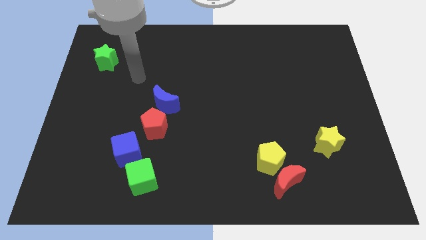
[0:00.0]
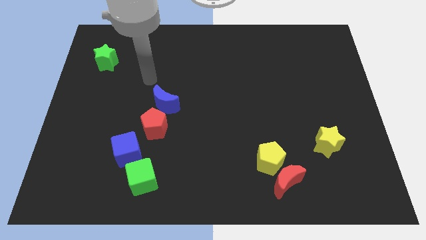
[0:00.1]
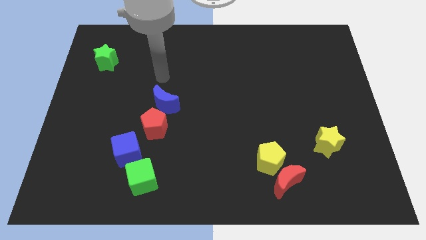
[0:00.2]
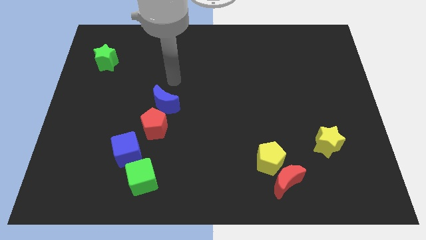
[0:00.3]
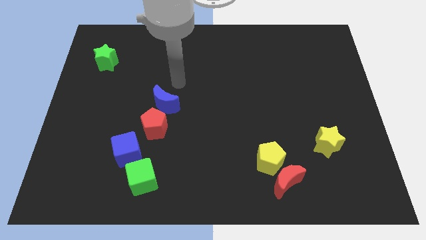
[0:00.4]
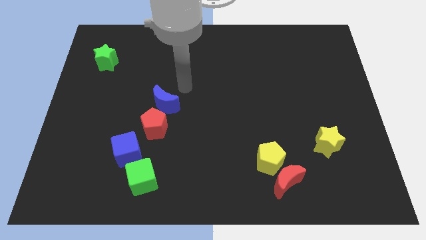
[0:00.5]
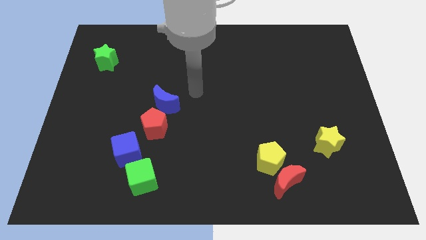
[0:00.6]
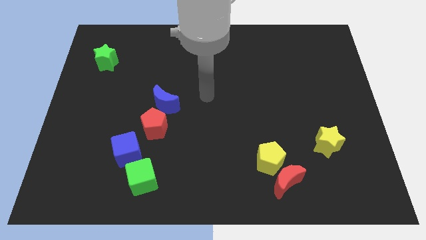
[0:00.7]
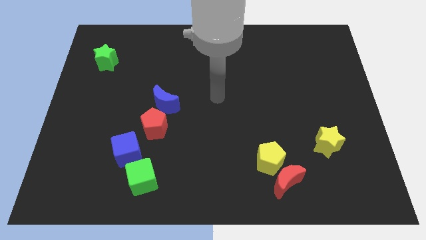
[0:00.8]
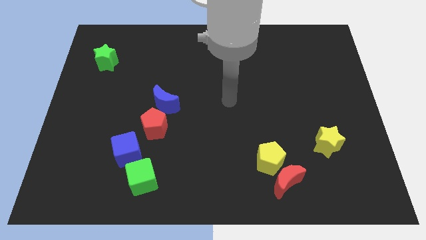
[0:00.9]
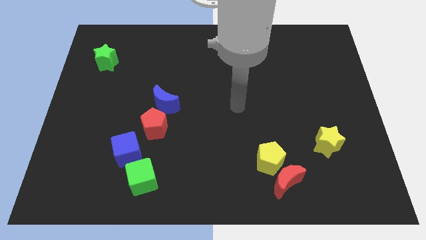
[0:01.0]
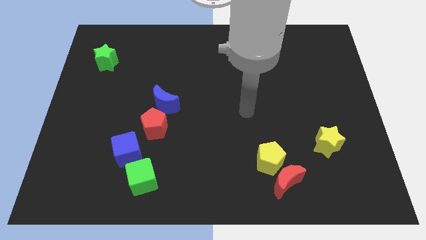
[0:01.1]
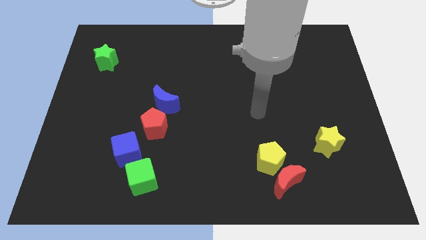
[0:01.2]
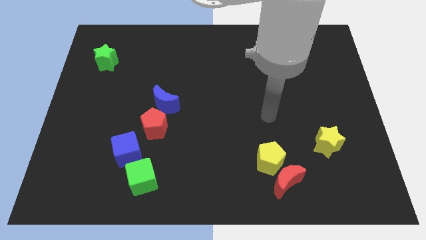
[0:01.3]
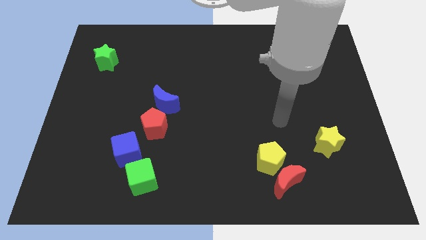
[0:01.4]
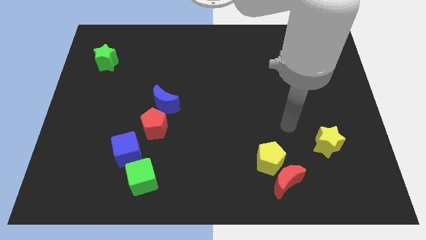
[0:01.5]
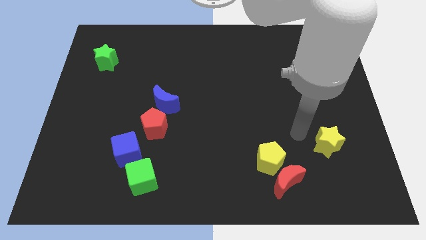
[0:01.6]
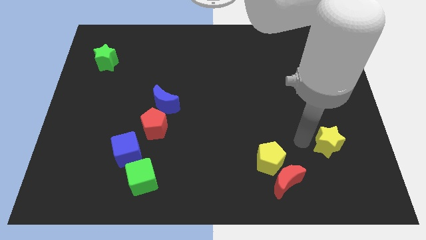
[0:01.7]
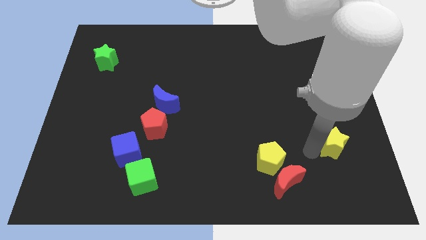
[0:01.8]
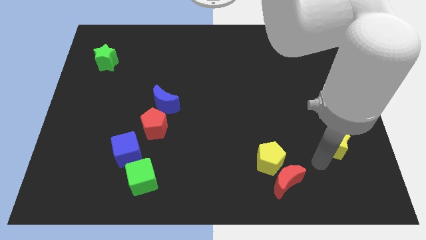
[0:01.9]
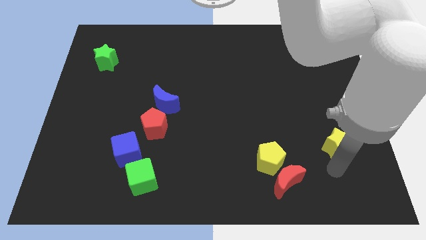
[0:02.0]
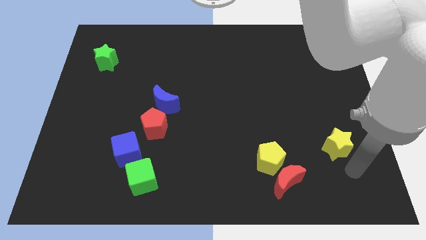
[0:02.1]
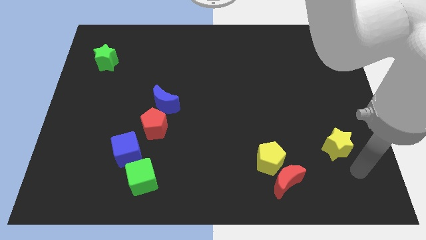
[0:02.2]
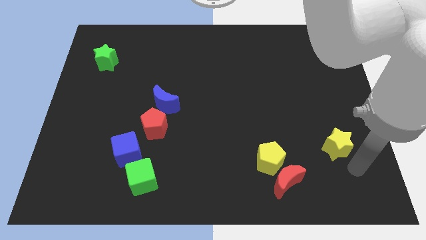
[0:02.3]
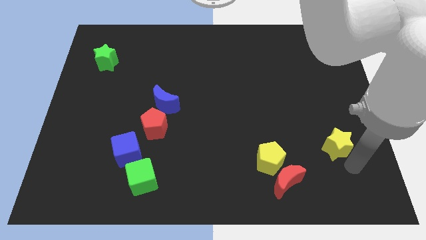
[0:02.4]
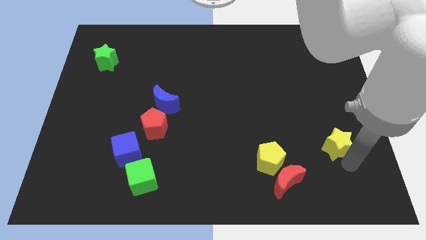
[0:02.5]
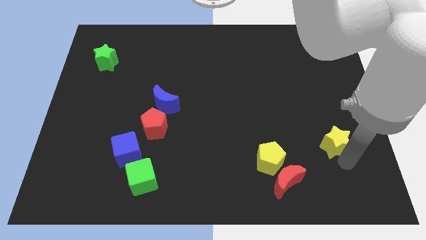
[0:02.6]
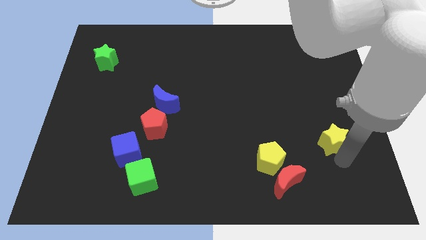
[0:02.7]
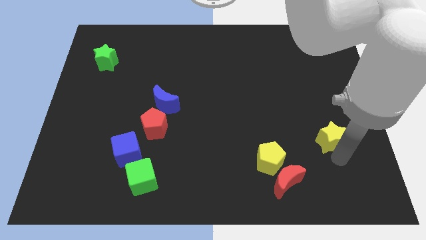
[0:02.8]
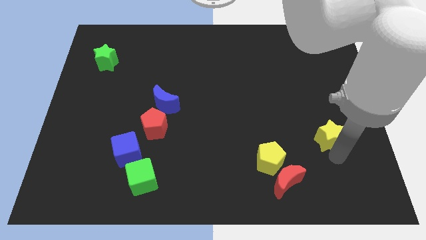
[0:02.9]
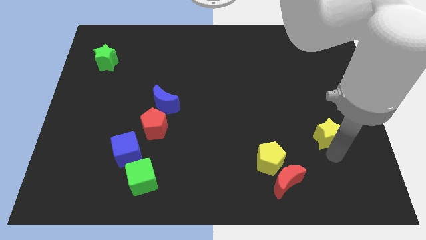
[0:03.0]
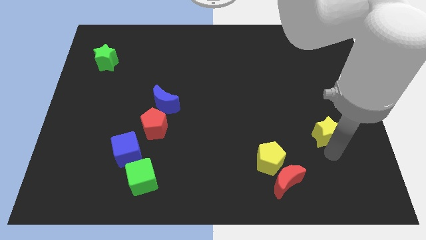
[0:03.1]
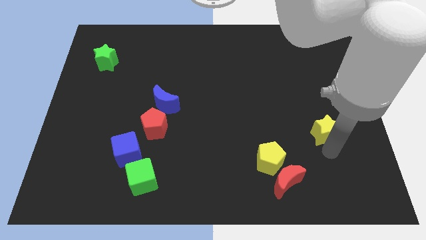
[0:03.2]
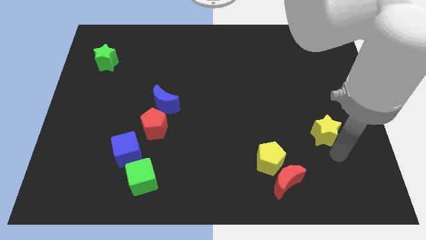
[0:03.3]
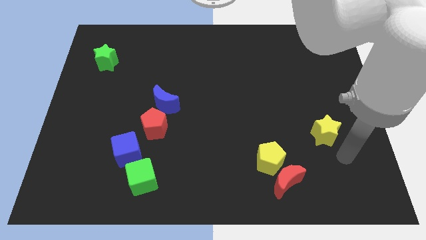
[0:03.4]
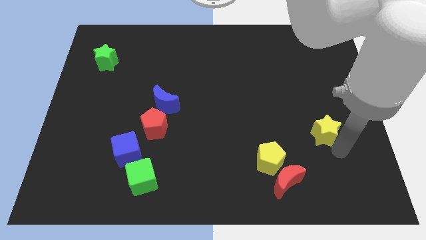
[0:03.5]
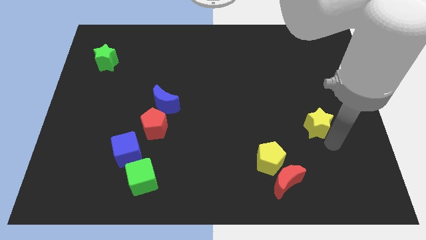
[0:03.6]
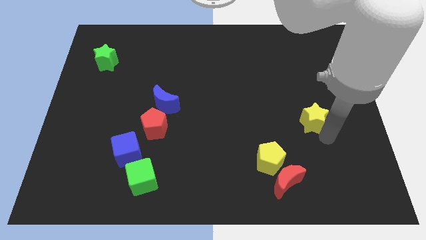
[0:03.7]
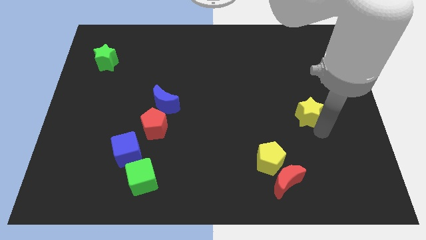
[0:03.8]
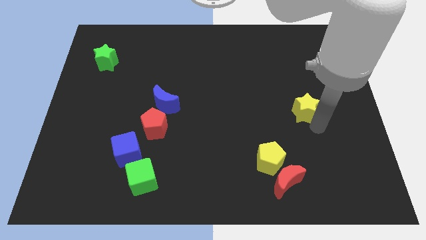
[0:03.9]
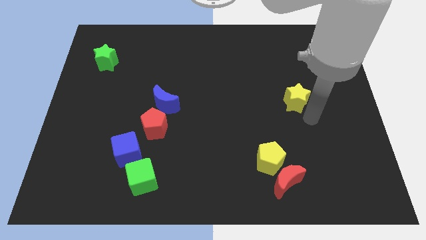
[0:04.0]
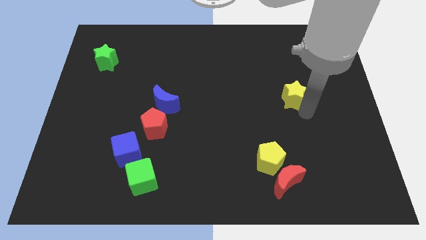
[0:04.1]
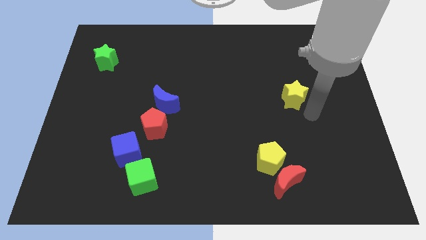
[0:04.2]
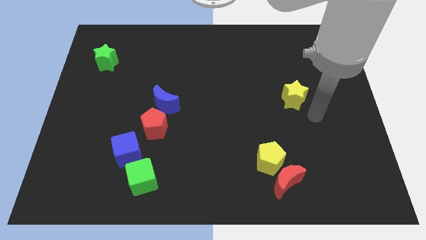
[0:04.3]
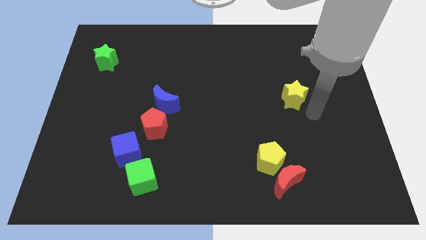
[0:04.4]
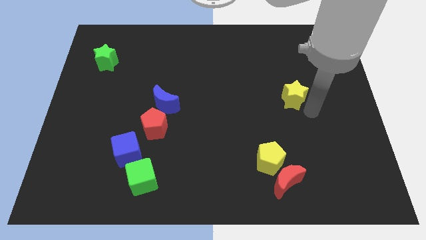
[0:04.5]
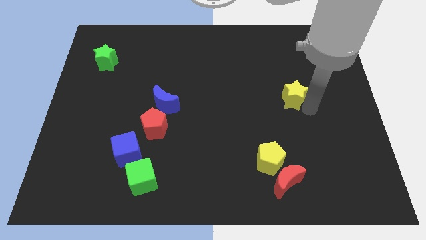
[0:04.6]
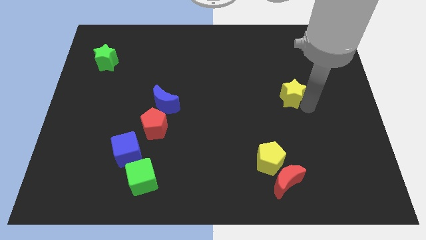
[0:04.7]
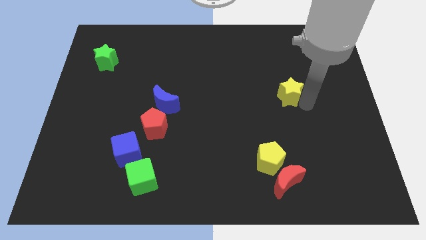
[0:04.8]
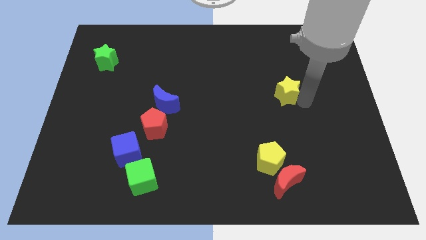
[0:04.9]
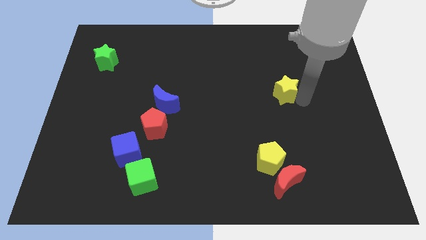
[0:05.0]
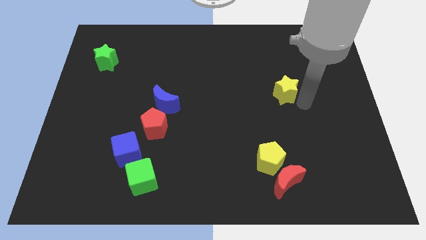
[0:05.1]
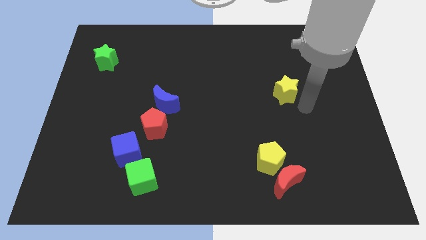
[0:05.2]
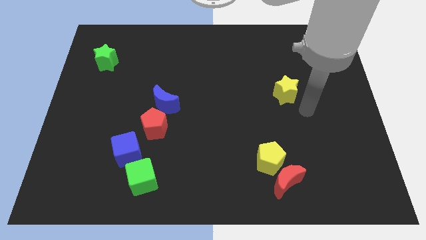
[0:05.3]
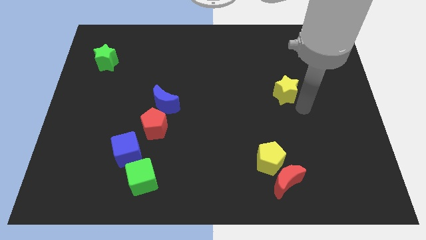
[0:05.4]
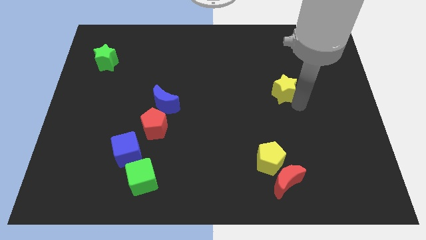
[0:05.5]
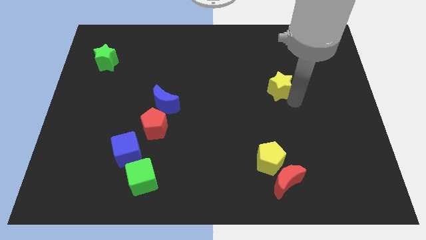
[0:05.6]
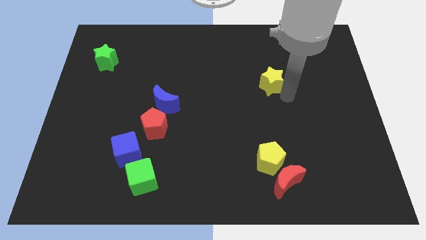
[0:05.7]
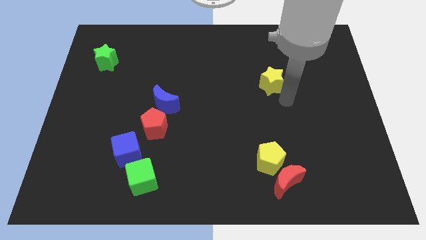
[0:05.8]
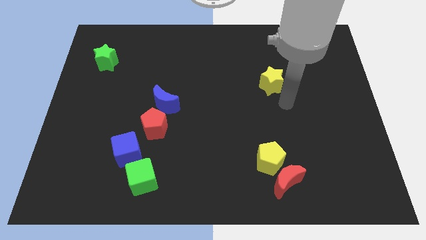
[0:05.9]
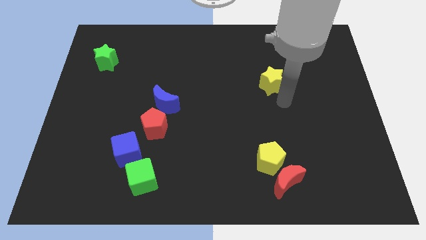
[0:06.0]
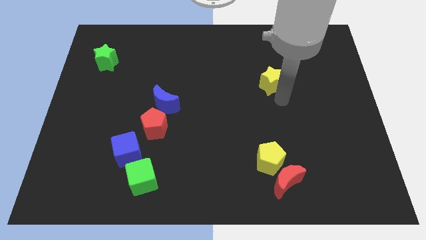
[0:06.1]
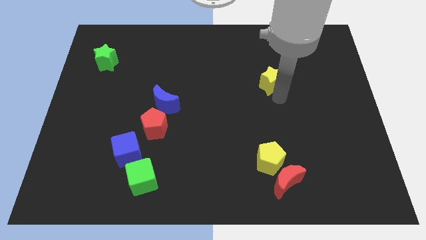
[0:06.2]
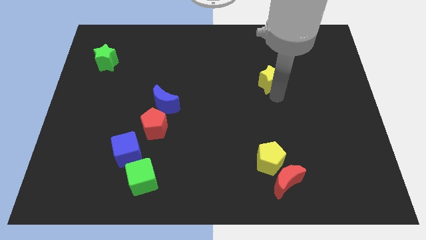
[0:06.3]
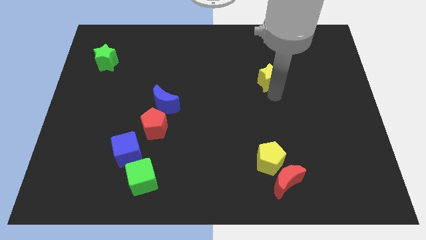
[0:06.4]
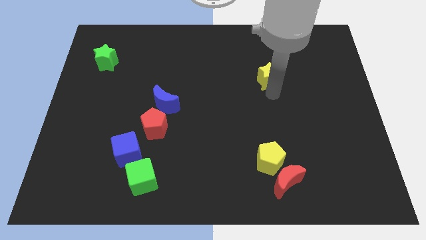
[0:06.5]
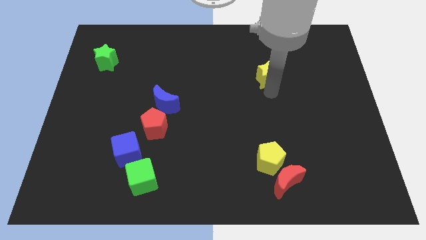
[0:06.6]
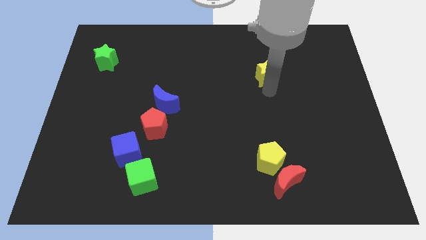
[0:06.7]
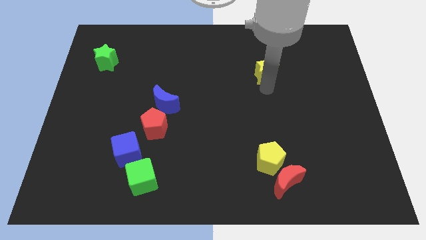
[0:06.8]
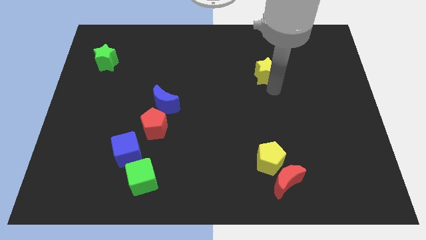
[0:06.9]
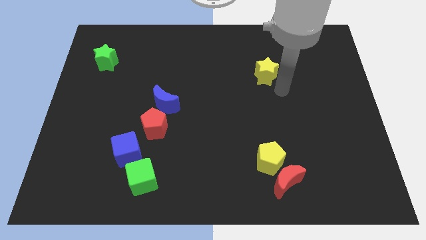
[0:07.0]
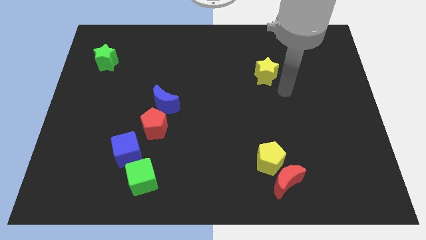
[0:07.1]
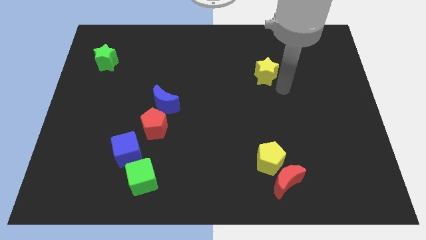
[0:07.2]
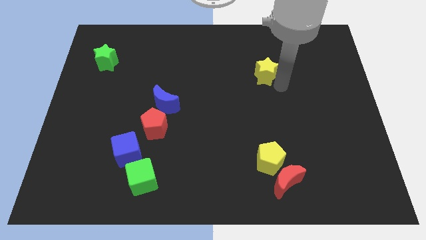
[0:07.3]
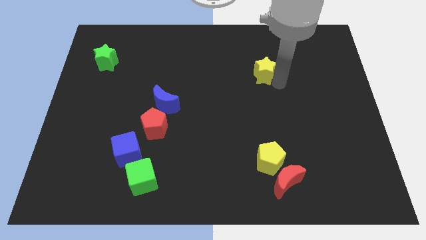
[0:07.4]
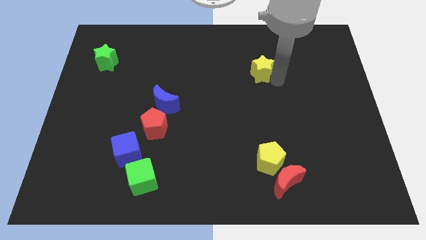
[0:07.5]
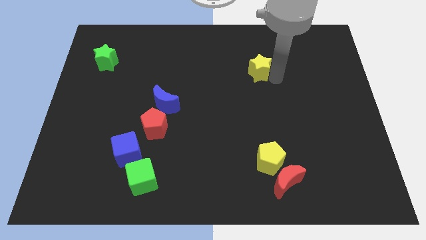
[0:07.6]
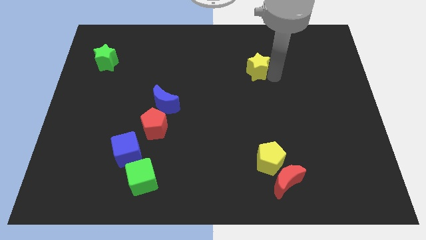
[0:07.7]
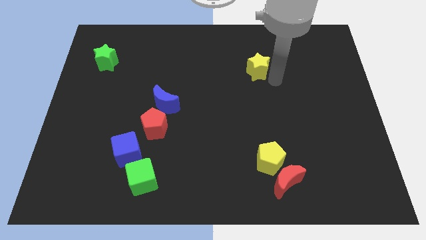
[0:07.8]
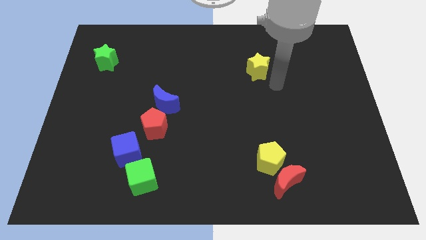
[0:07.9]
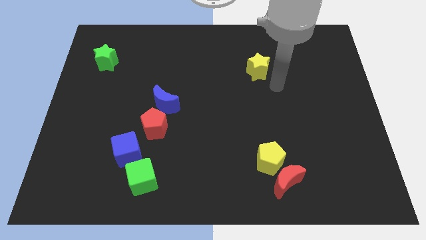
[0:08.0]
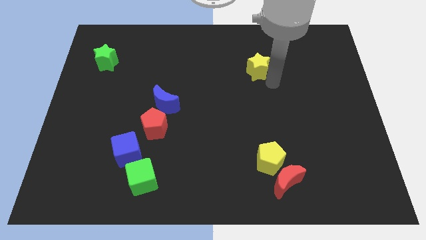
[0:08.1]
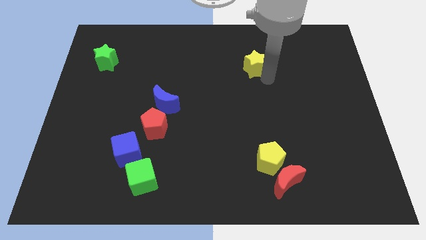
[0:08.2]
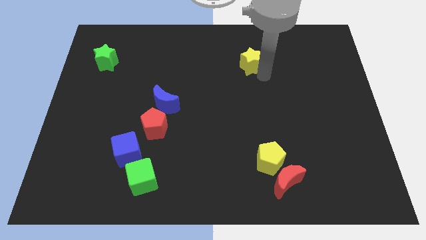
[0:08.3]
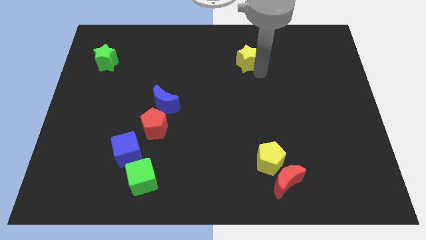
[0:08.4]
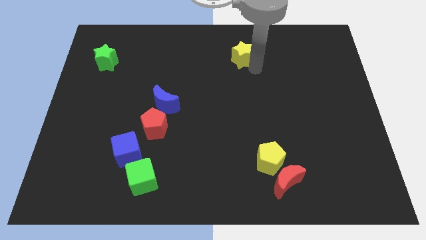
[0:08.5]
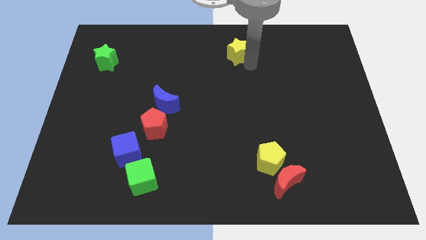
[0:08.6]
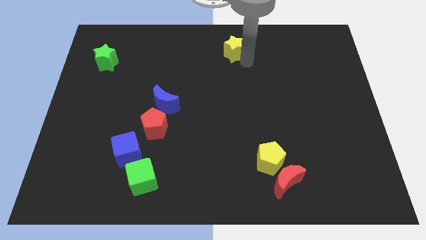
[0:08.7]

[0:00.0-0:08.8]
slide the yellow star to the top
